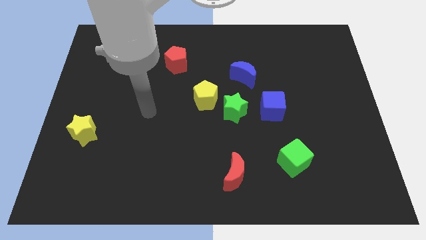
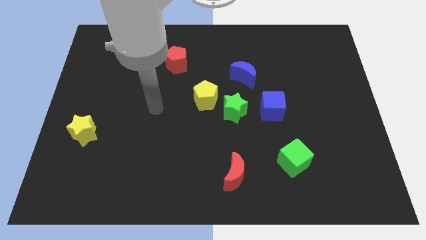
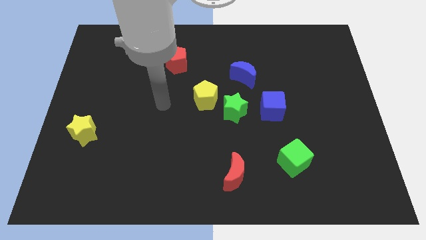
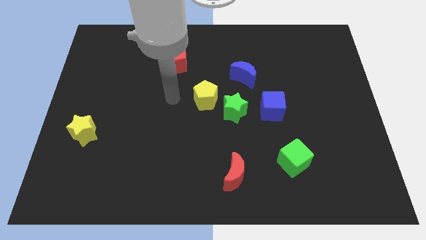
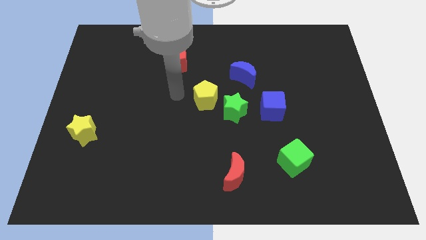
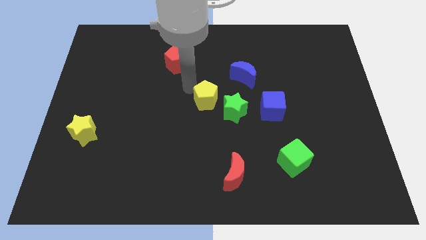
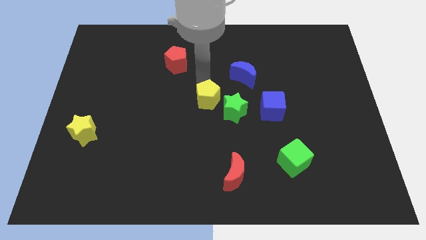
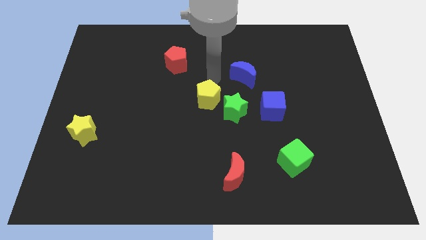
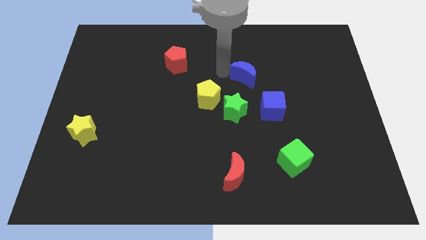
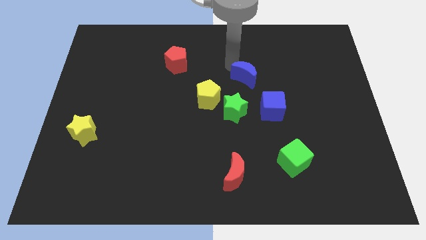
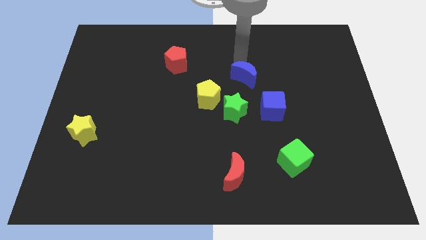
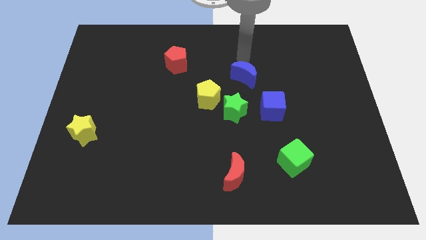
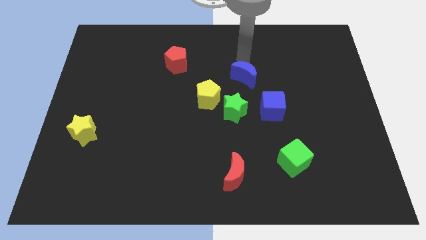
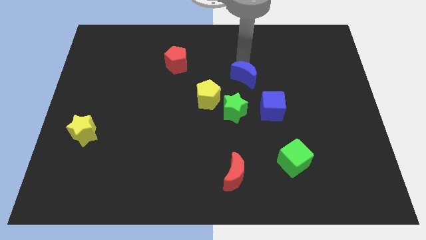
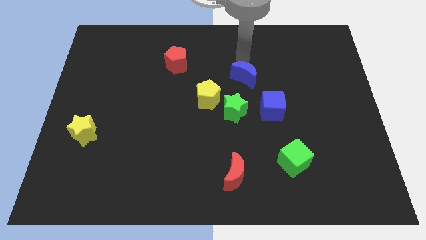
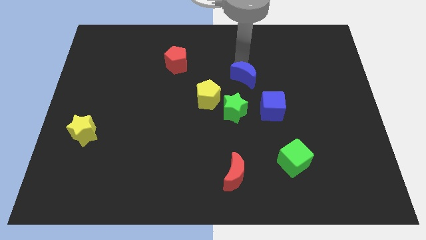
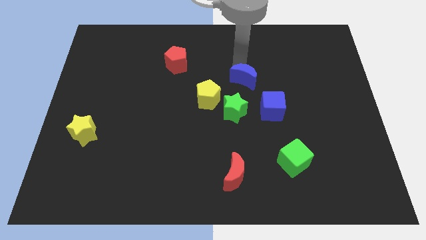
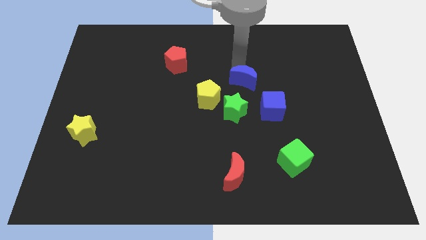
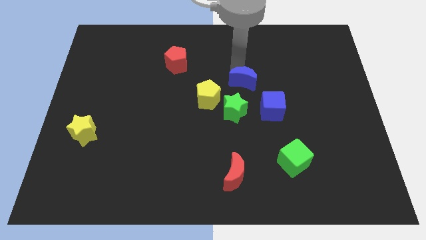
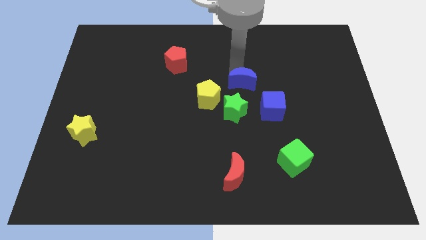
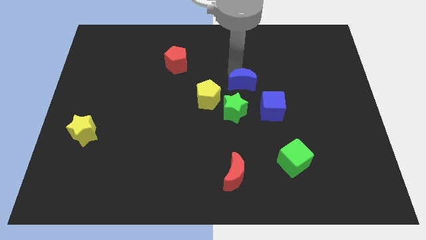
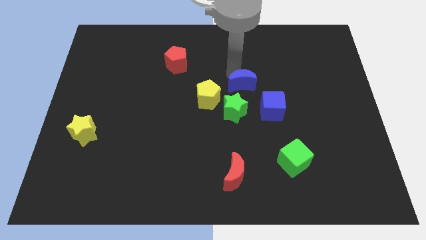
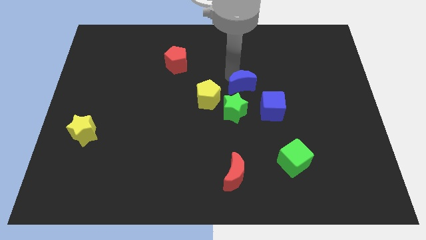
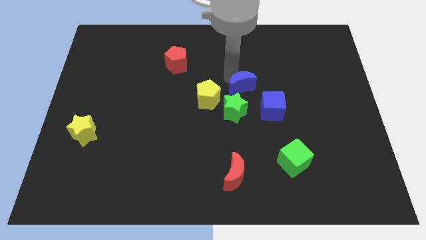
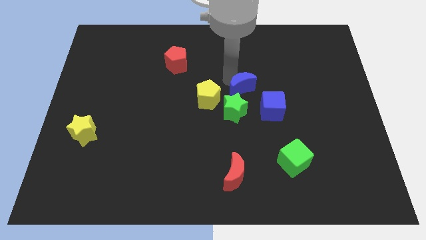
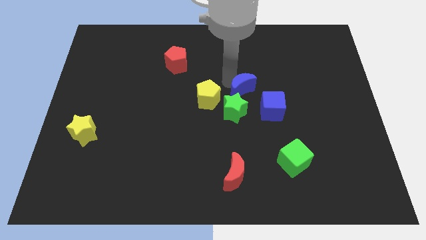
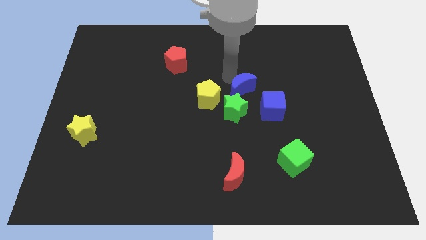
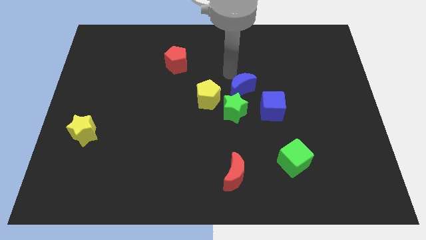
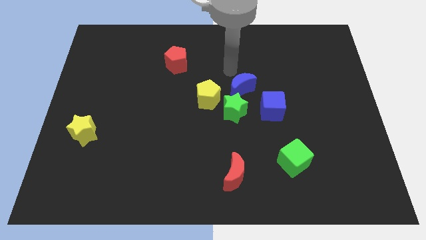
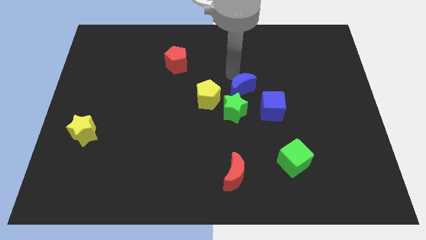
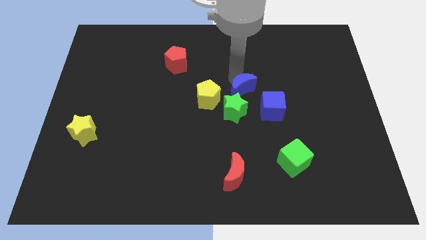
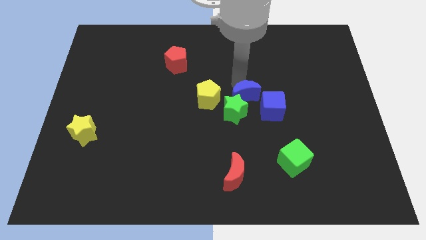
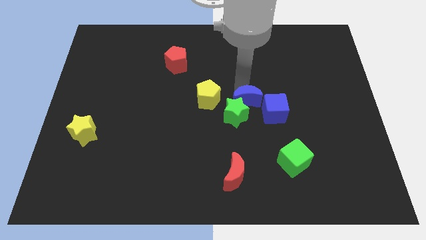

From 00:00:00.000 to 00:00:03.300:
push the blue moon down a little bit

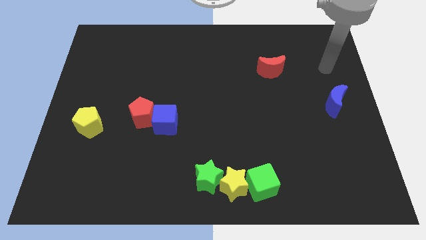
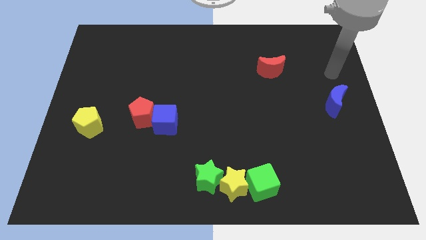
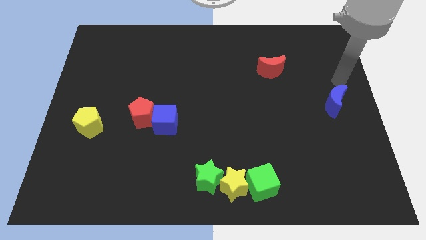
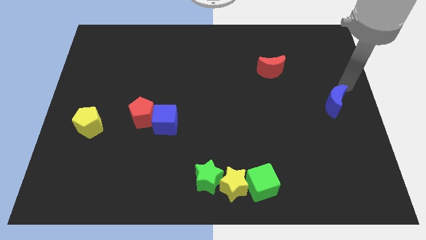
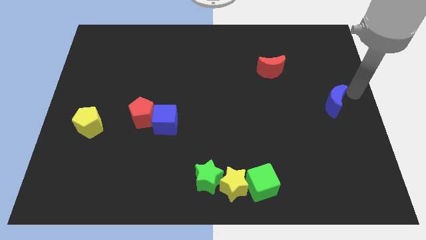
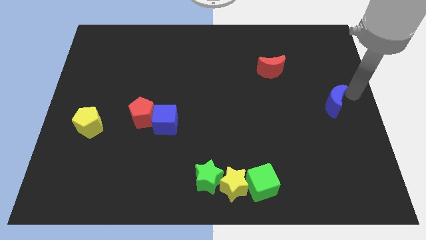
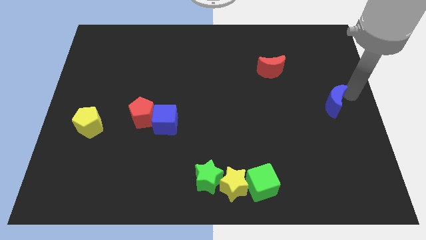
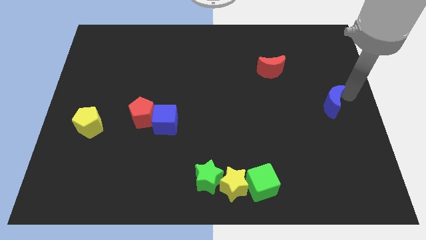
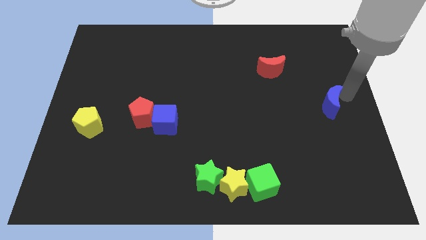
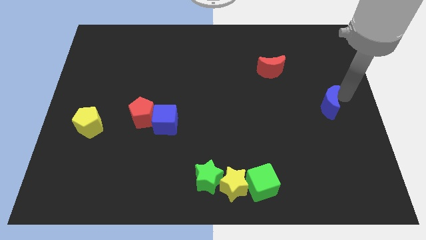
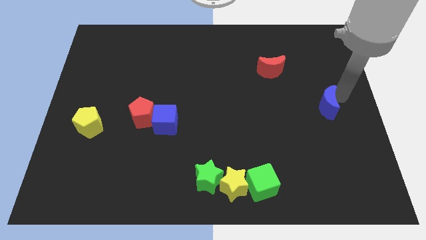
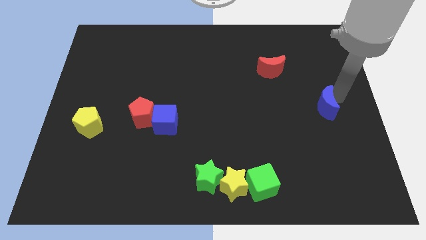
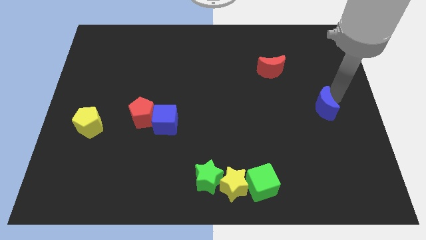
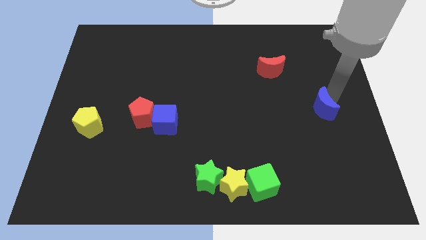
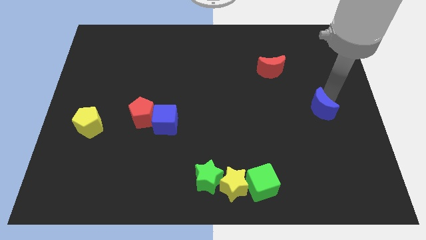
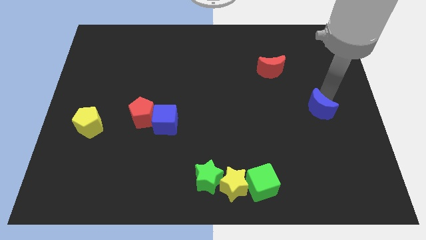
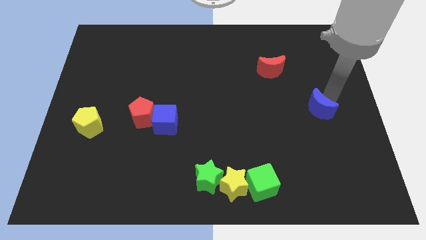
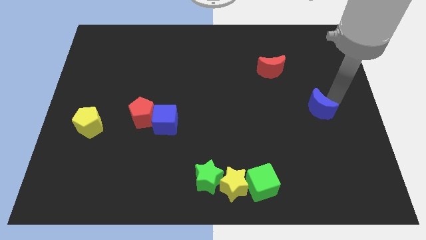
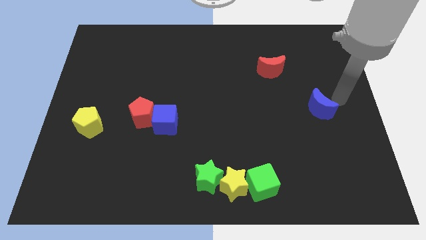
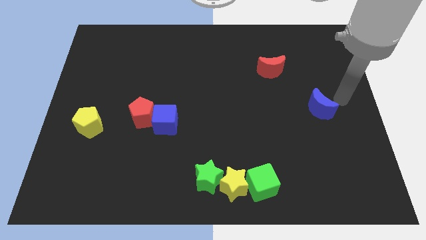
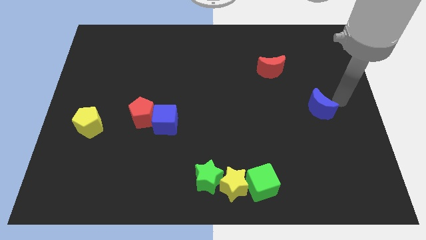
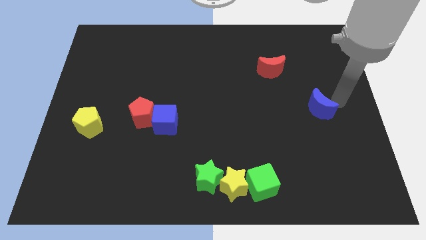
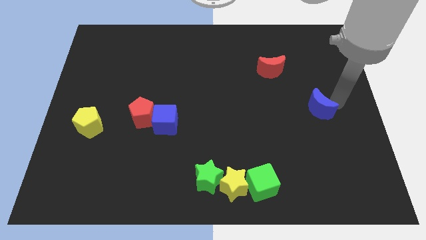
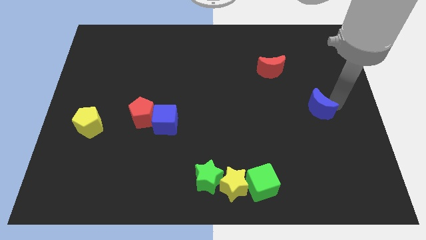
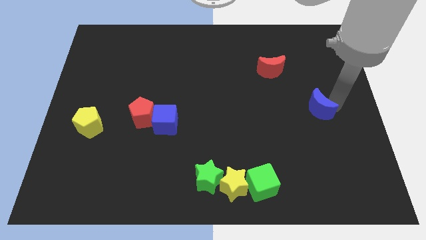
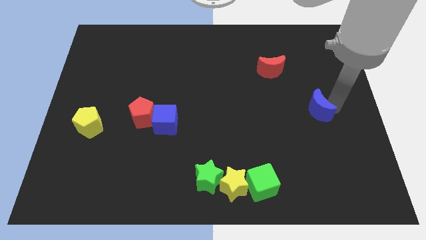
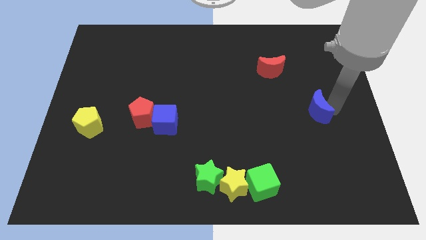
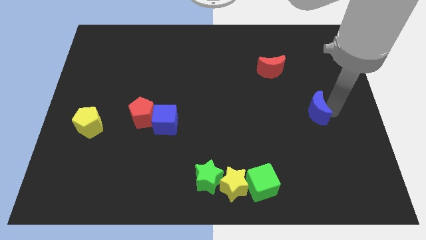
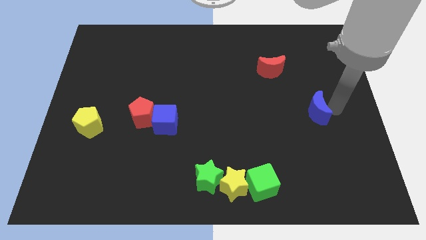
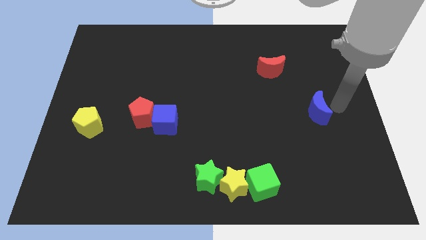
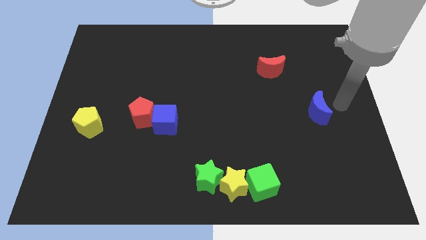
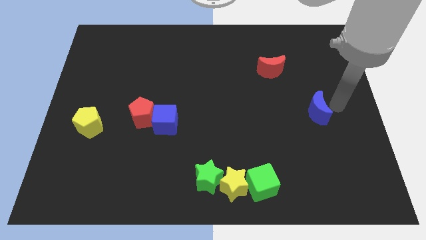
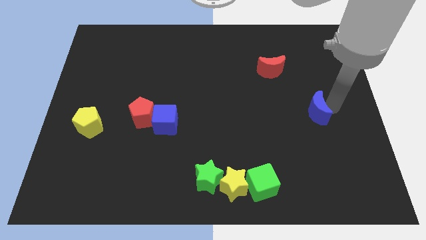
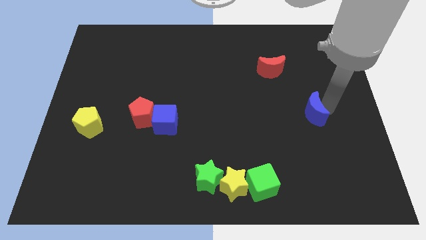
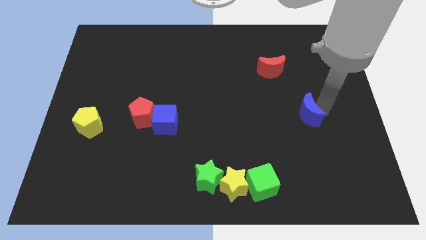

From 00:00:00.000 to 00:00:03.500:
slightly move the blue moon diagonally down and to the left

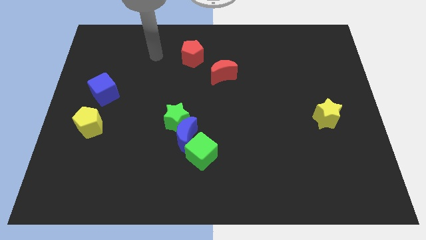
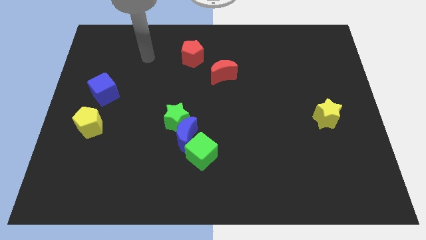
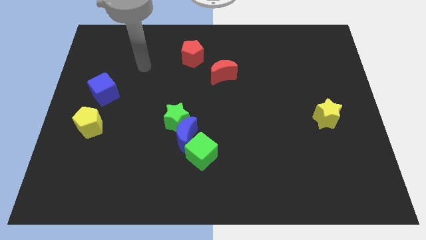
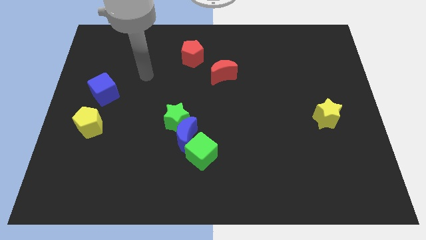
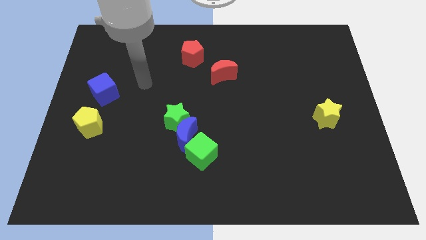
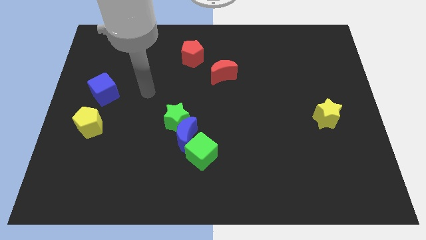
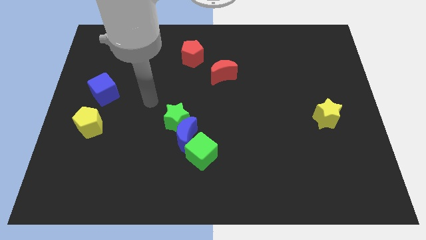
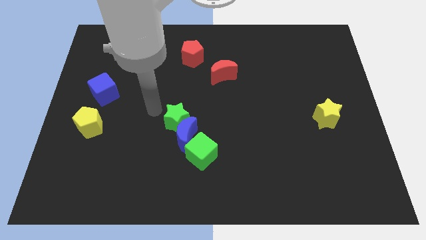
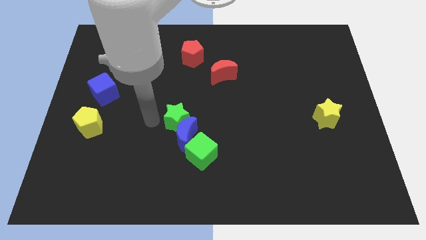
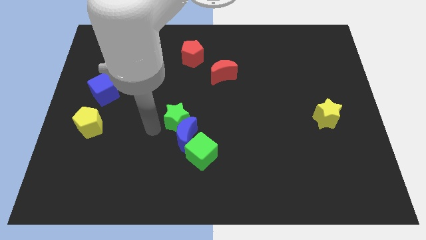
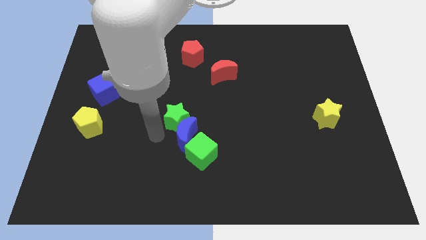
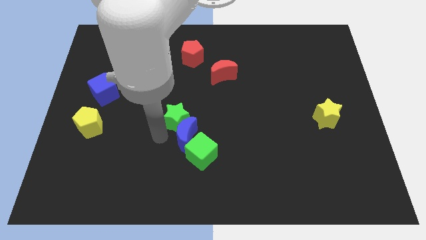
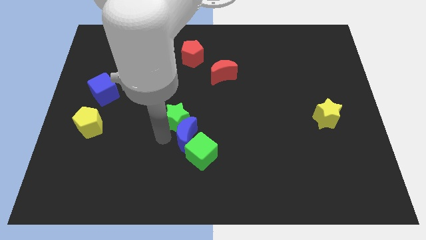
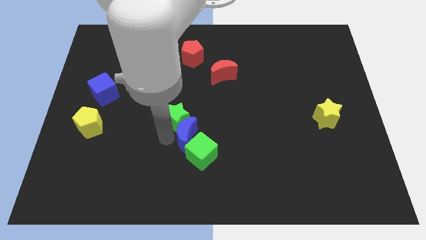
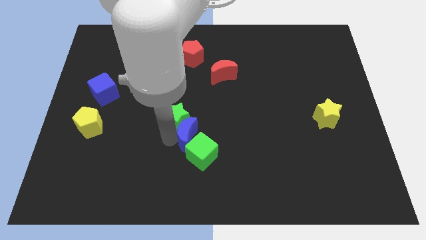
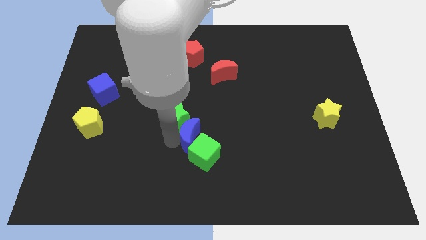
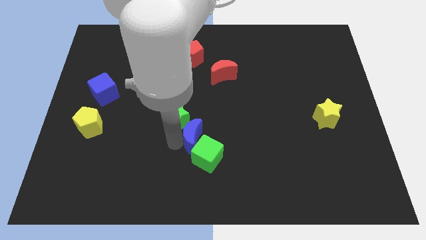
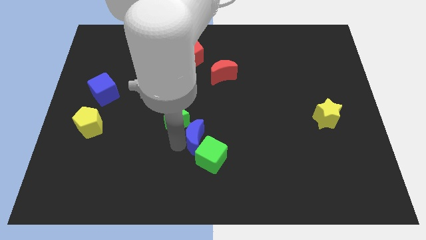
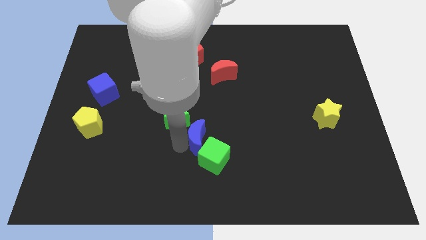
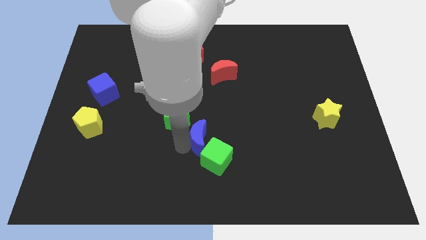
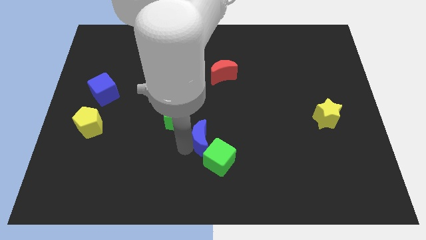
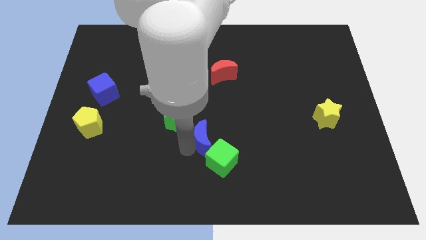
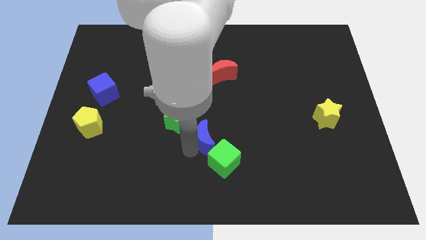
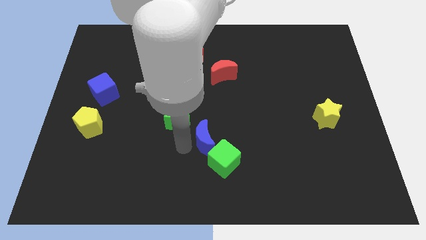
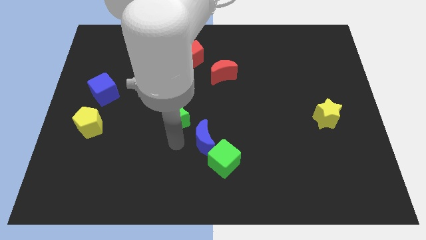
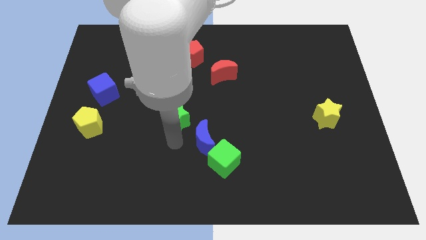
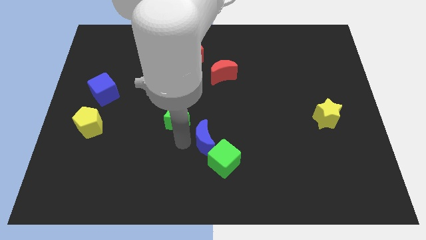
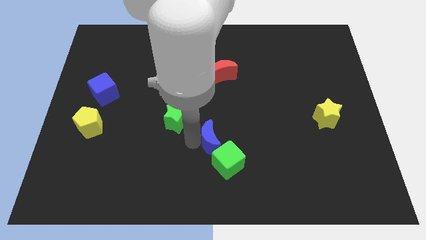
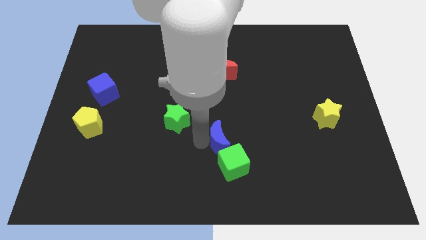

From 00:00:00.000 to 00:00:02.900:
slightly slide the blue moon right
